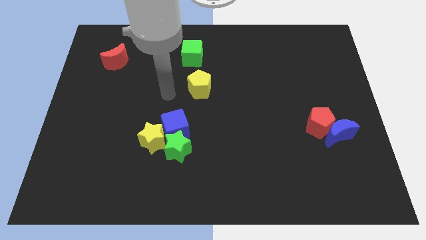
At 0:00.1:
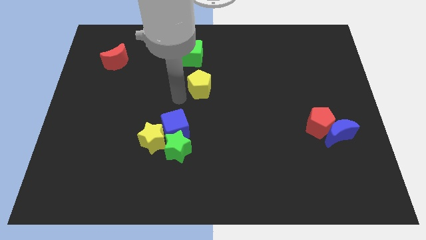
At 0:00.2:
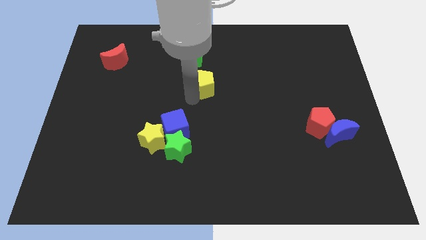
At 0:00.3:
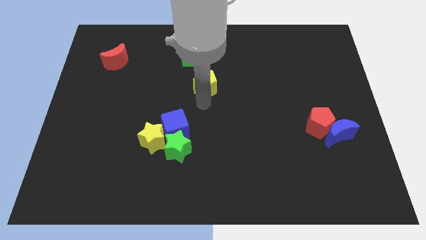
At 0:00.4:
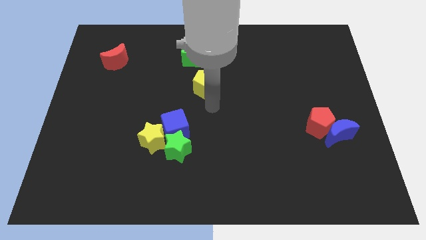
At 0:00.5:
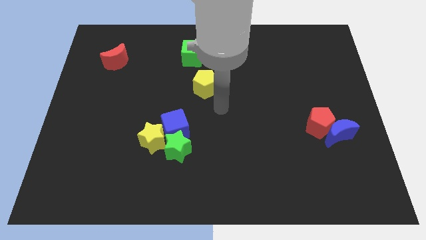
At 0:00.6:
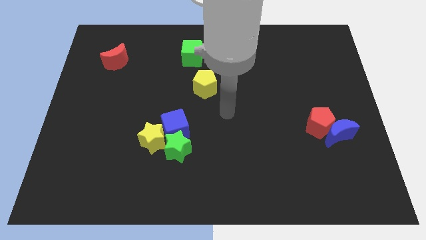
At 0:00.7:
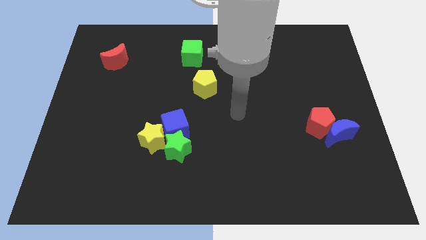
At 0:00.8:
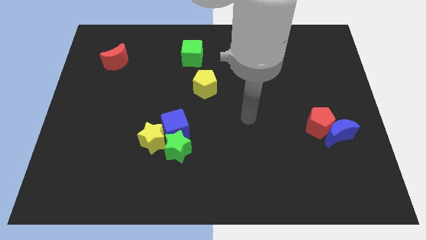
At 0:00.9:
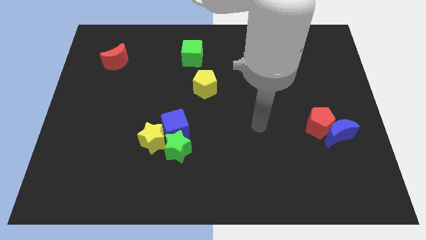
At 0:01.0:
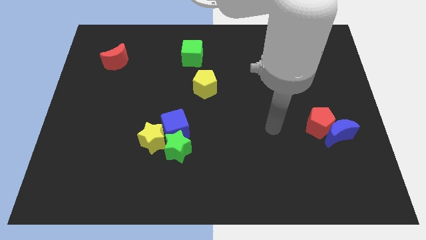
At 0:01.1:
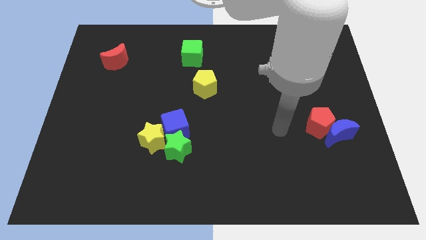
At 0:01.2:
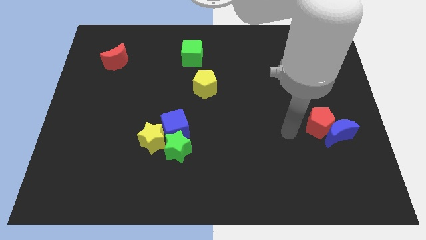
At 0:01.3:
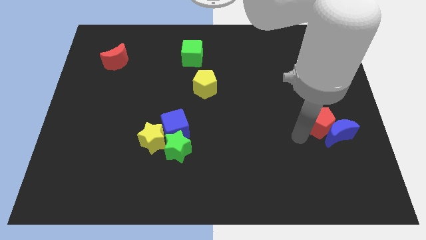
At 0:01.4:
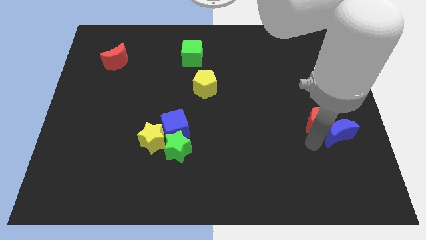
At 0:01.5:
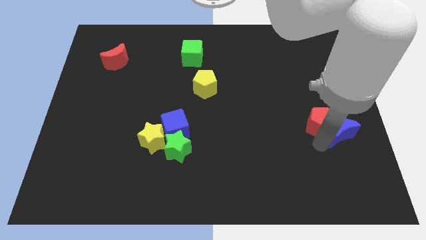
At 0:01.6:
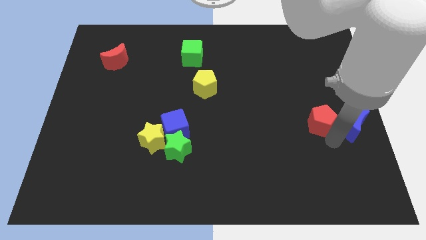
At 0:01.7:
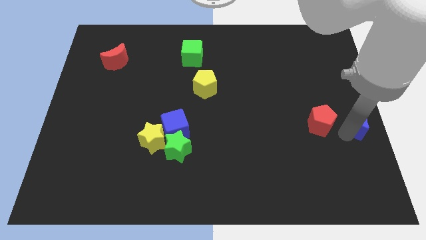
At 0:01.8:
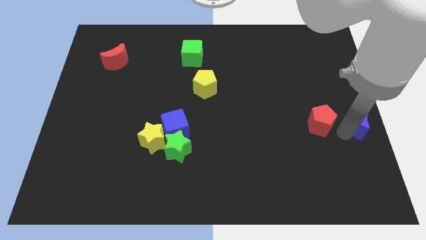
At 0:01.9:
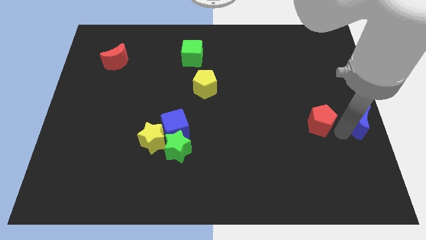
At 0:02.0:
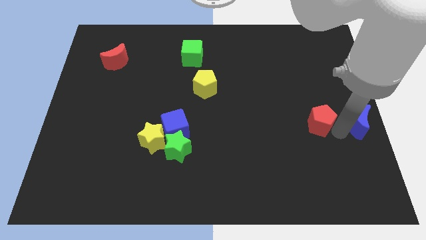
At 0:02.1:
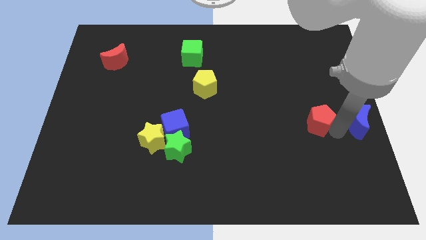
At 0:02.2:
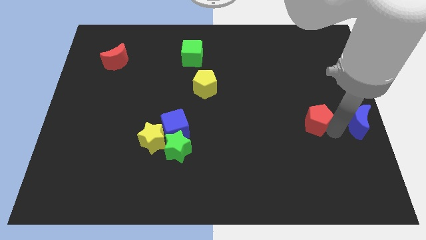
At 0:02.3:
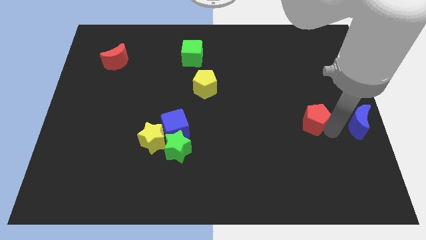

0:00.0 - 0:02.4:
move the red pentagon away from the blue moon

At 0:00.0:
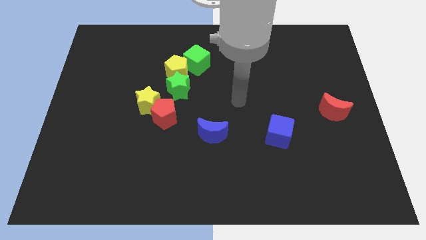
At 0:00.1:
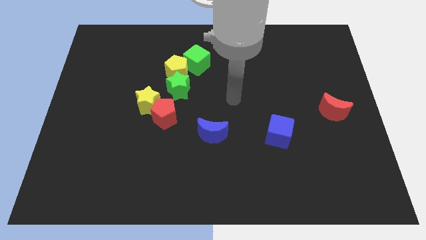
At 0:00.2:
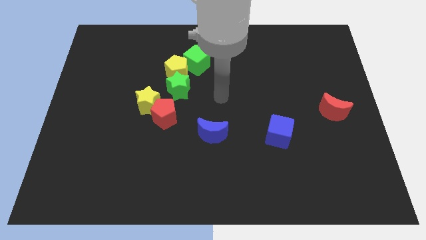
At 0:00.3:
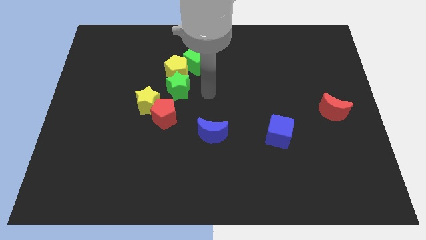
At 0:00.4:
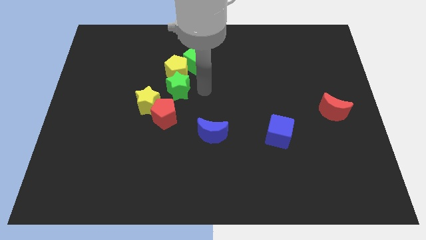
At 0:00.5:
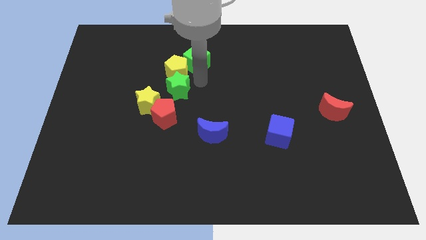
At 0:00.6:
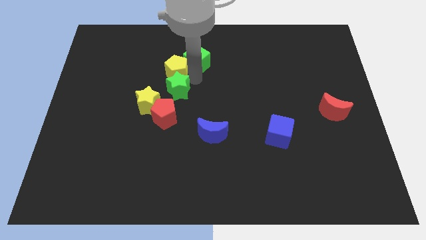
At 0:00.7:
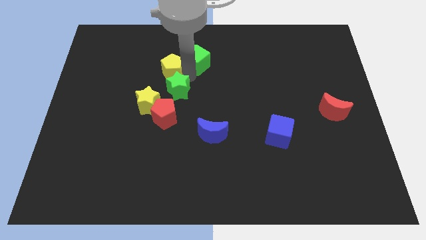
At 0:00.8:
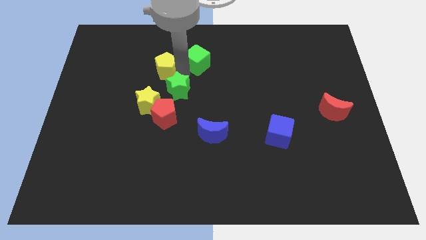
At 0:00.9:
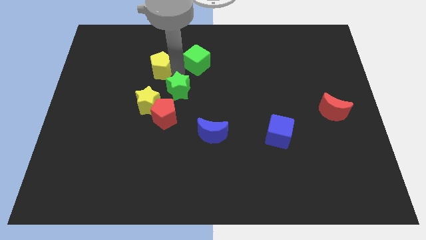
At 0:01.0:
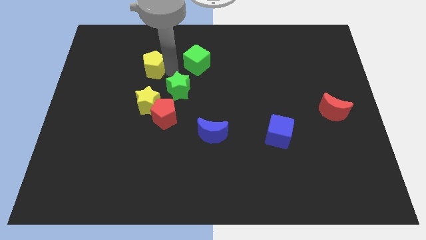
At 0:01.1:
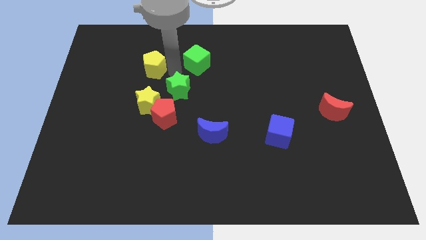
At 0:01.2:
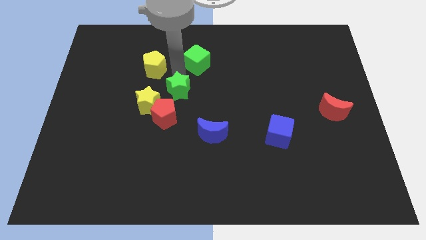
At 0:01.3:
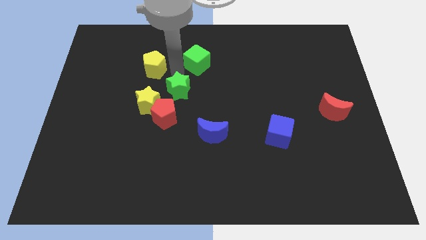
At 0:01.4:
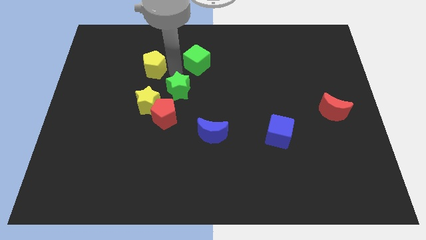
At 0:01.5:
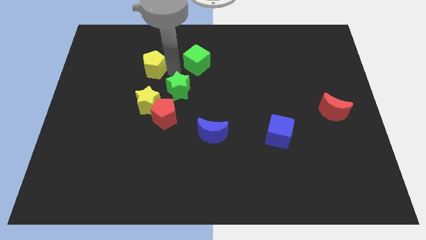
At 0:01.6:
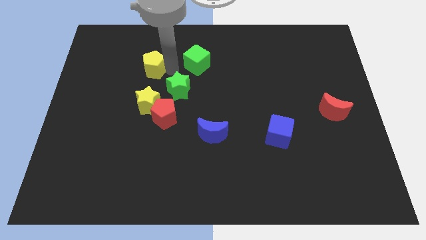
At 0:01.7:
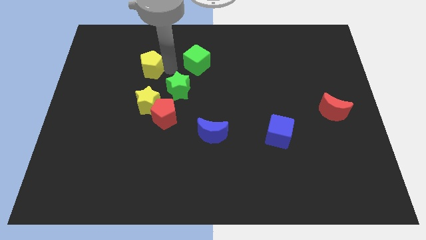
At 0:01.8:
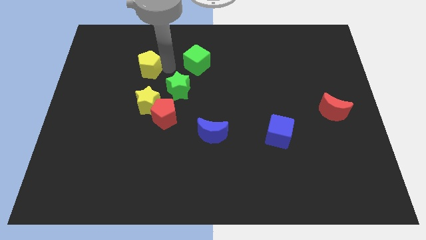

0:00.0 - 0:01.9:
pull the yellow pentagon apart from the green cube and green star

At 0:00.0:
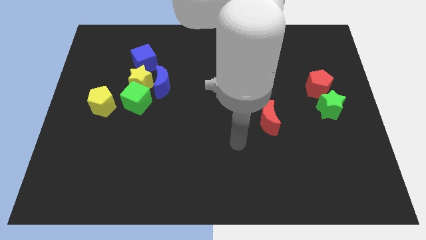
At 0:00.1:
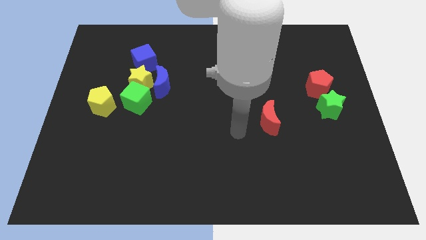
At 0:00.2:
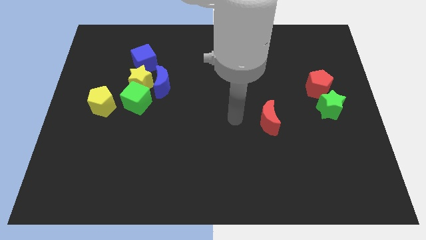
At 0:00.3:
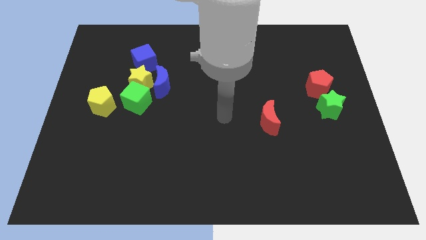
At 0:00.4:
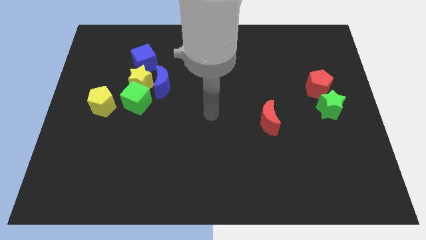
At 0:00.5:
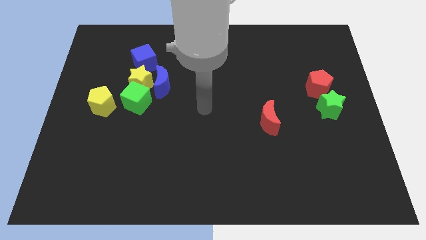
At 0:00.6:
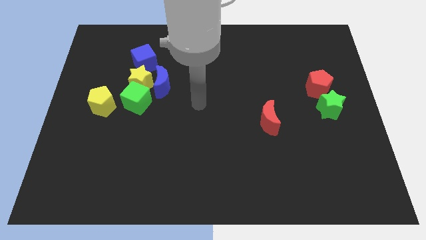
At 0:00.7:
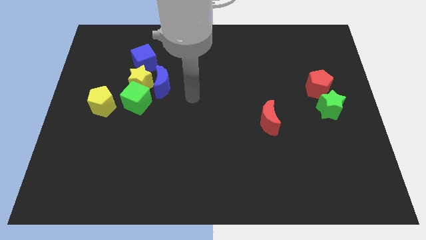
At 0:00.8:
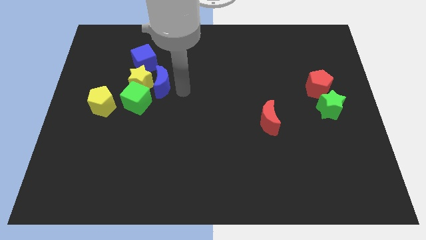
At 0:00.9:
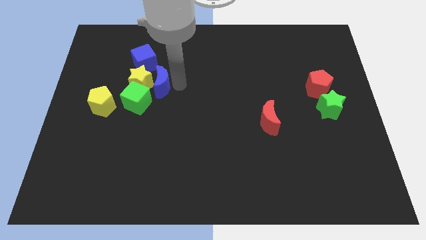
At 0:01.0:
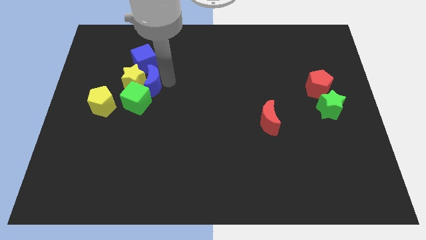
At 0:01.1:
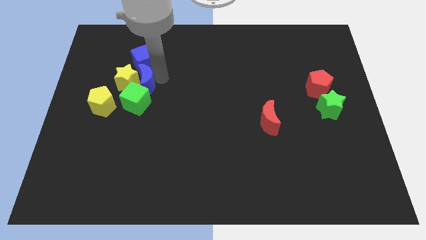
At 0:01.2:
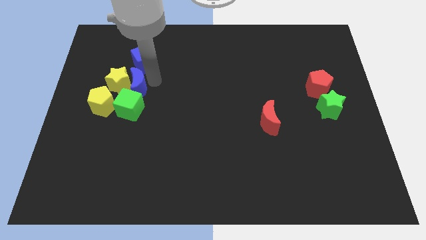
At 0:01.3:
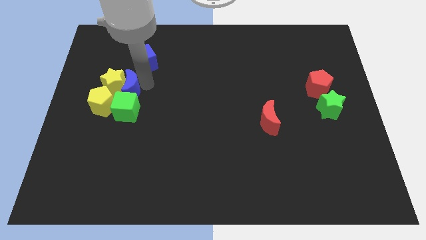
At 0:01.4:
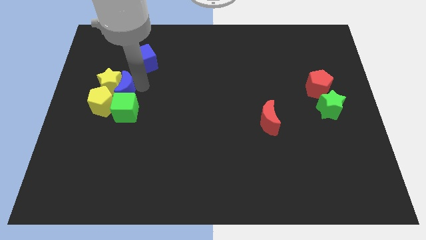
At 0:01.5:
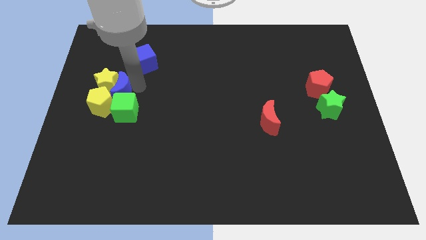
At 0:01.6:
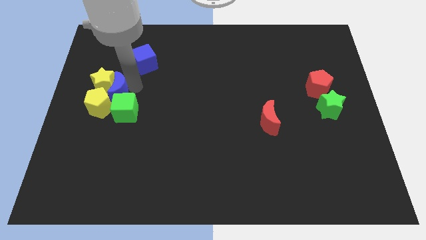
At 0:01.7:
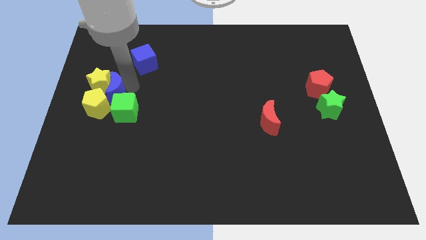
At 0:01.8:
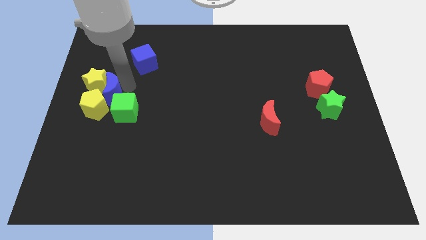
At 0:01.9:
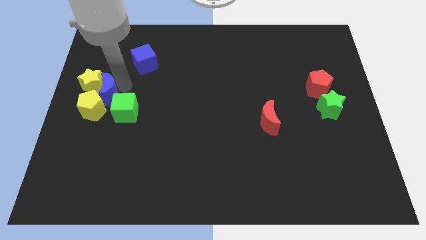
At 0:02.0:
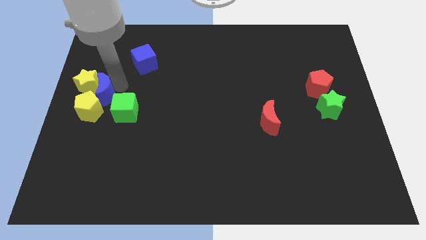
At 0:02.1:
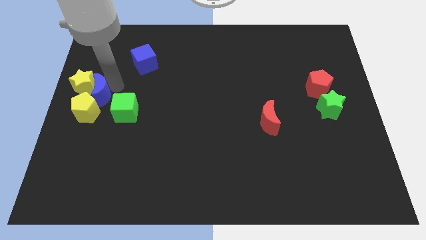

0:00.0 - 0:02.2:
move the yellow star away from the blue moon, green cube, and blue cube

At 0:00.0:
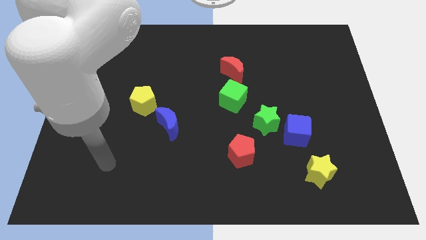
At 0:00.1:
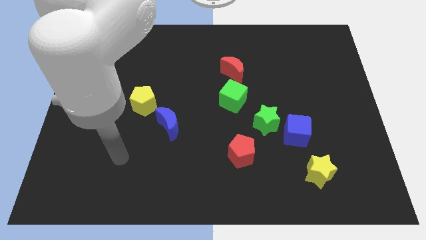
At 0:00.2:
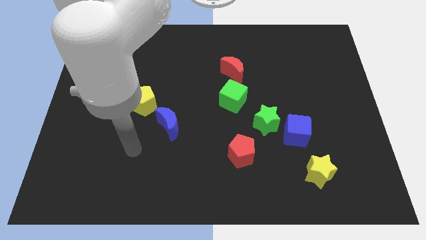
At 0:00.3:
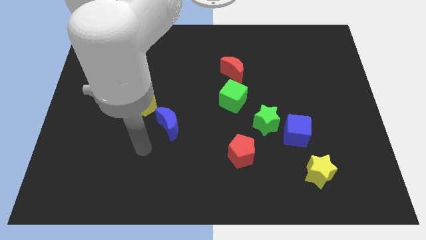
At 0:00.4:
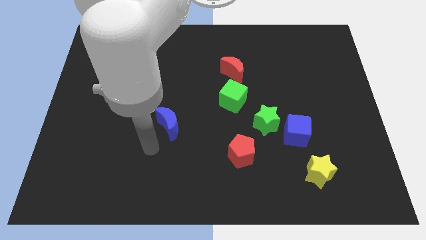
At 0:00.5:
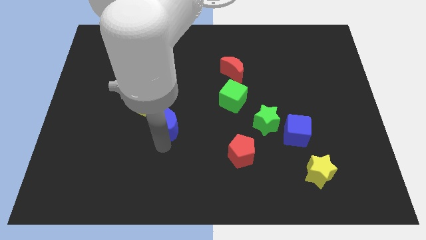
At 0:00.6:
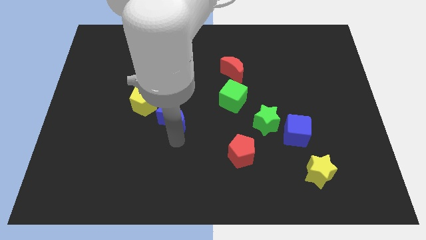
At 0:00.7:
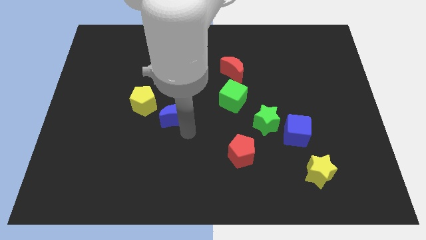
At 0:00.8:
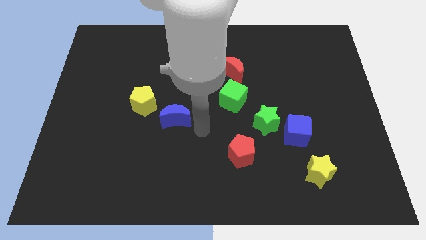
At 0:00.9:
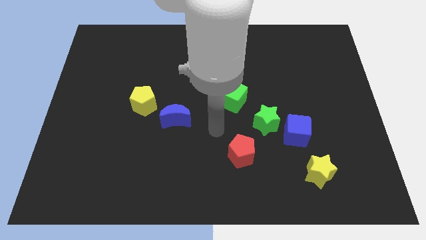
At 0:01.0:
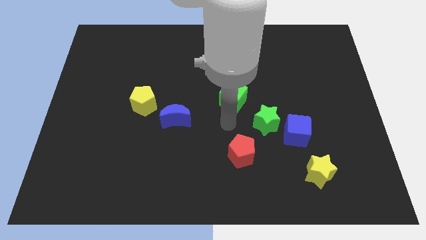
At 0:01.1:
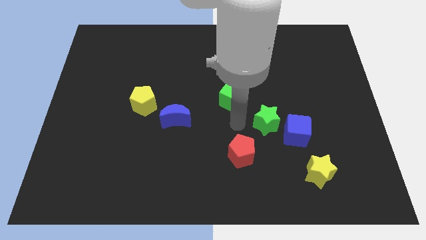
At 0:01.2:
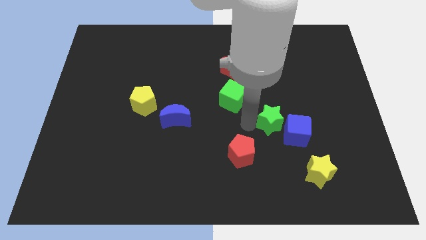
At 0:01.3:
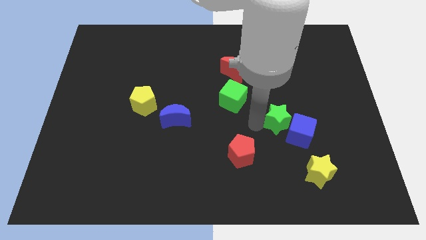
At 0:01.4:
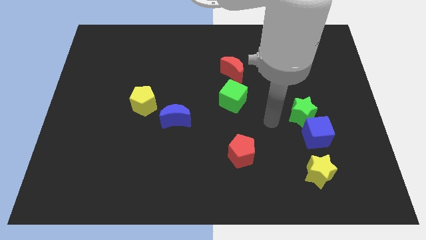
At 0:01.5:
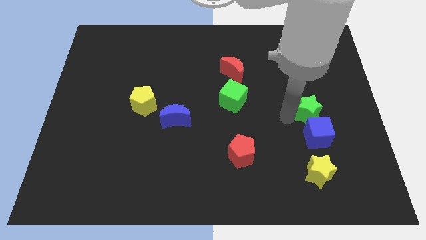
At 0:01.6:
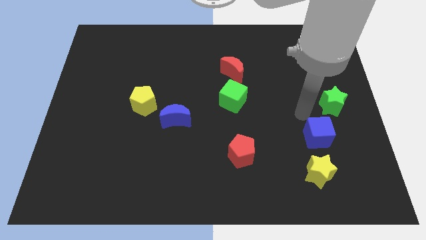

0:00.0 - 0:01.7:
pull the blue cube apart from the green star

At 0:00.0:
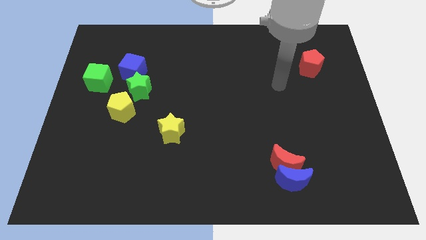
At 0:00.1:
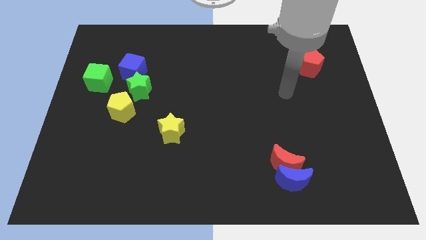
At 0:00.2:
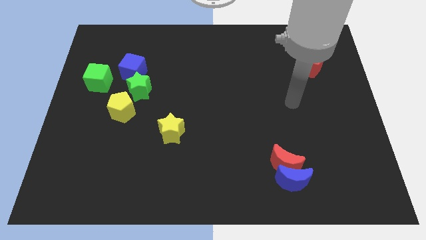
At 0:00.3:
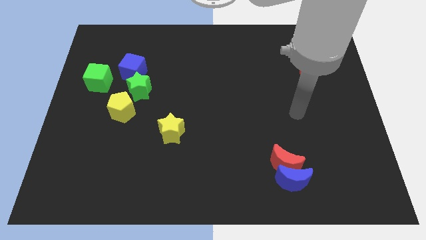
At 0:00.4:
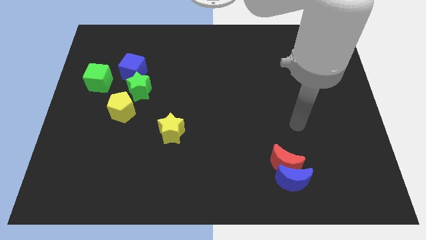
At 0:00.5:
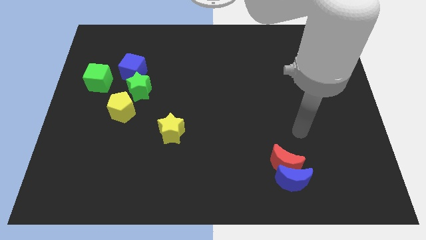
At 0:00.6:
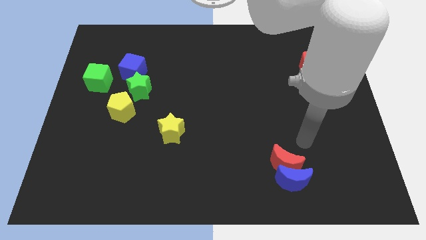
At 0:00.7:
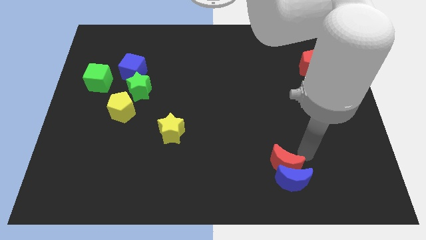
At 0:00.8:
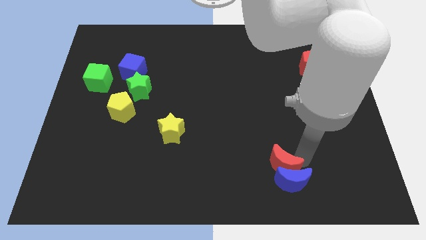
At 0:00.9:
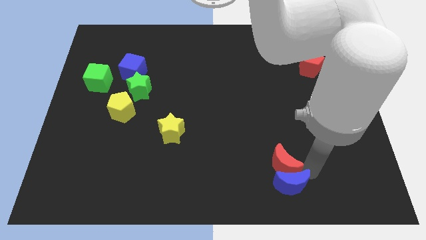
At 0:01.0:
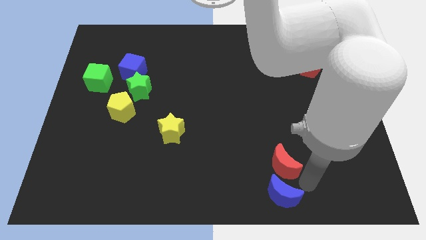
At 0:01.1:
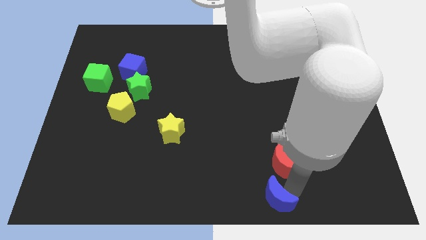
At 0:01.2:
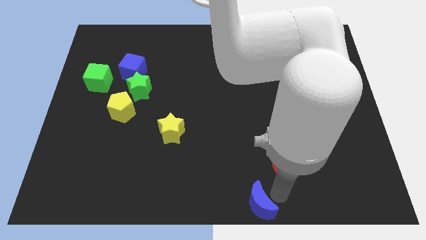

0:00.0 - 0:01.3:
separate the red moon from the blue moon

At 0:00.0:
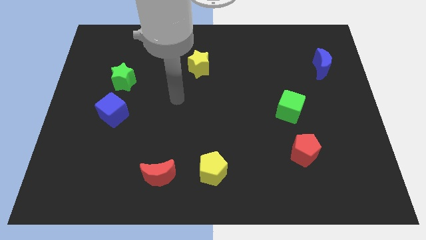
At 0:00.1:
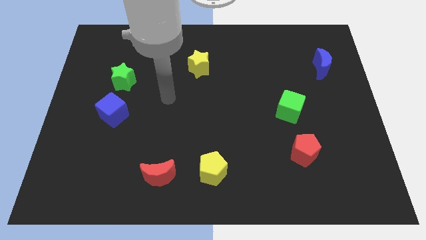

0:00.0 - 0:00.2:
separate the blue cube from the green star
